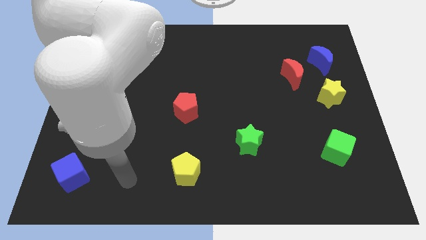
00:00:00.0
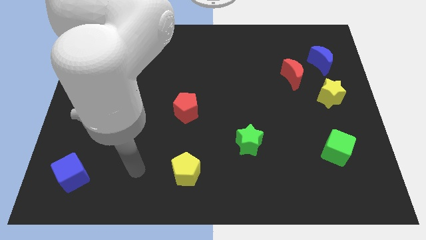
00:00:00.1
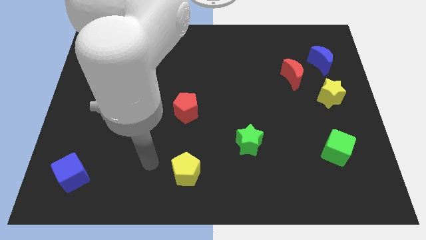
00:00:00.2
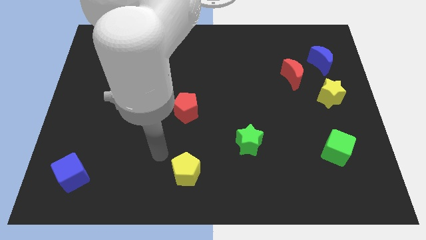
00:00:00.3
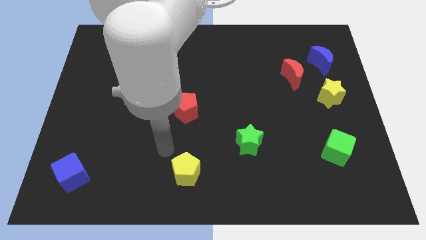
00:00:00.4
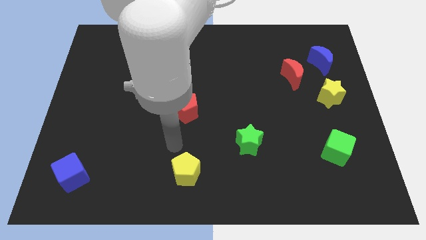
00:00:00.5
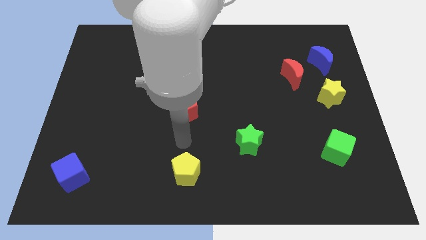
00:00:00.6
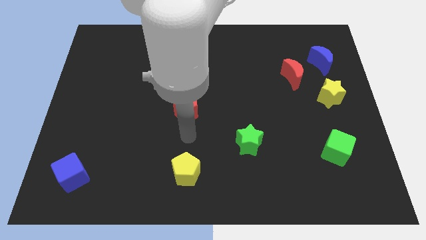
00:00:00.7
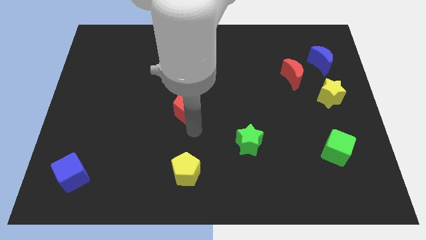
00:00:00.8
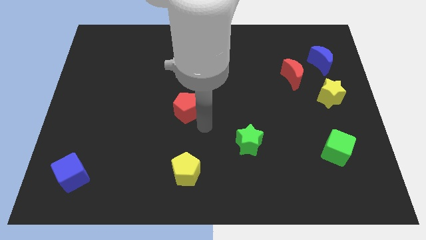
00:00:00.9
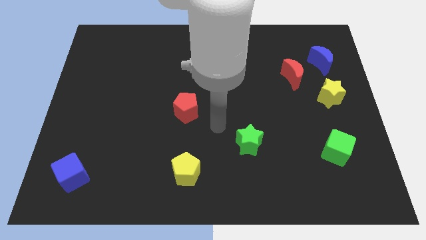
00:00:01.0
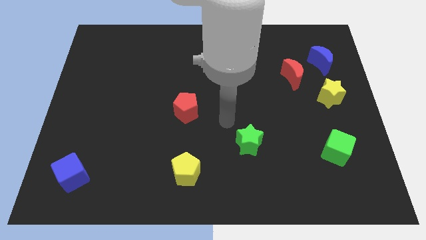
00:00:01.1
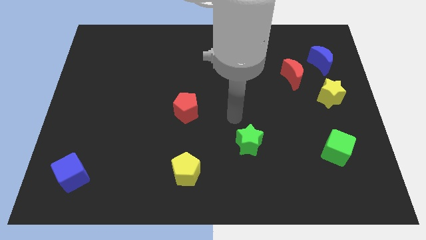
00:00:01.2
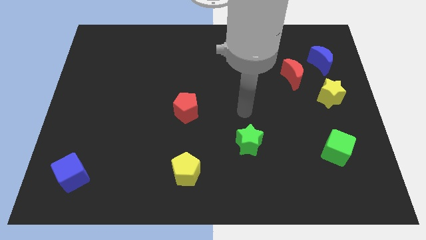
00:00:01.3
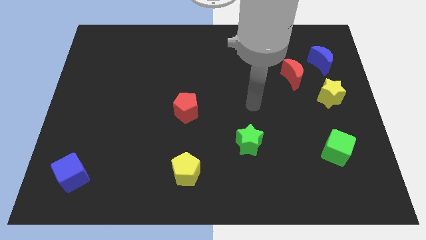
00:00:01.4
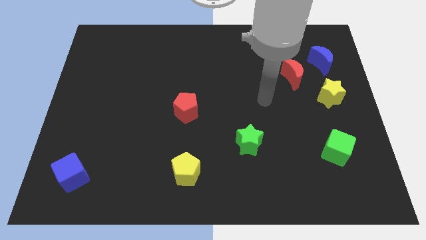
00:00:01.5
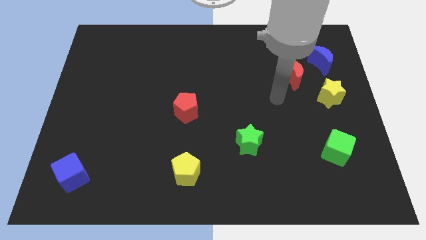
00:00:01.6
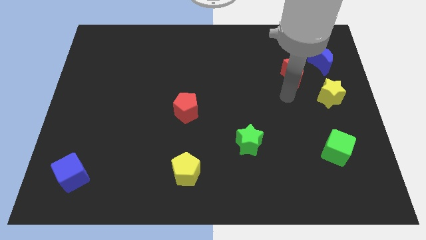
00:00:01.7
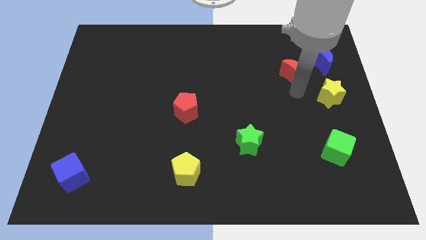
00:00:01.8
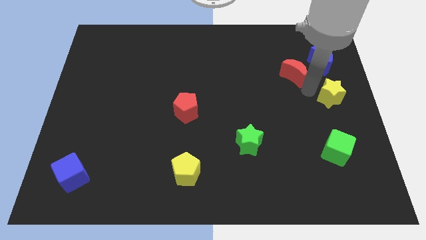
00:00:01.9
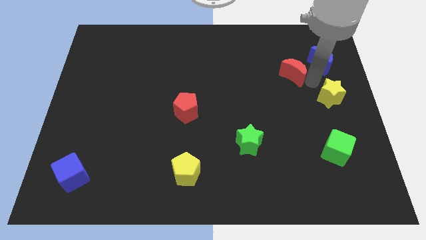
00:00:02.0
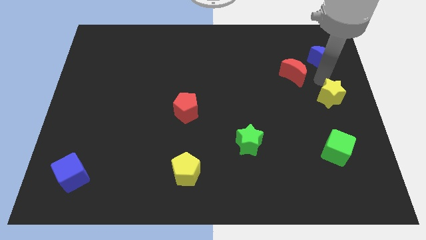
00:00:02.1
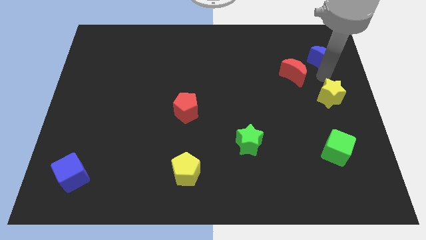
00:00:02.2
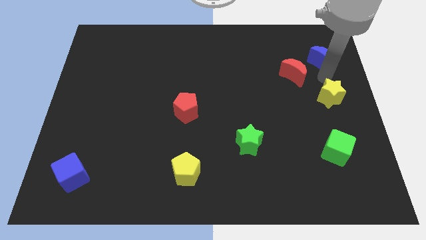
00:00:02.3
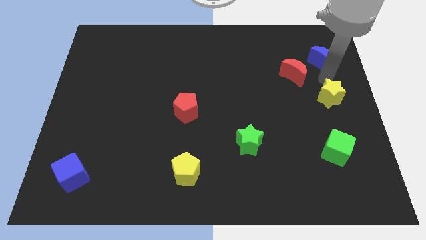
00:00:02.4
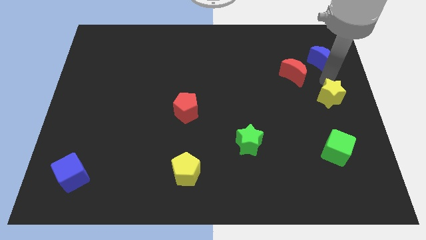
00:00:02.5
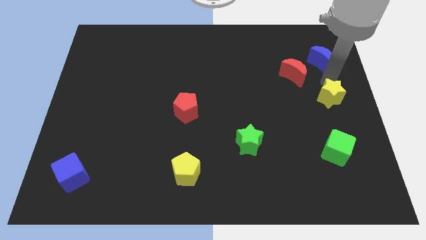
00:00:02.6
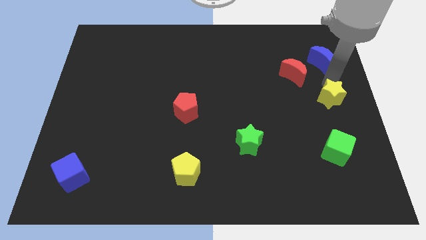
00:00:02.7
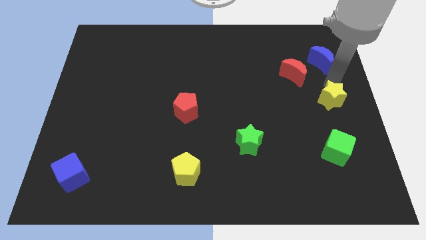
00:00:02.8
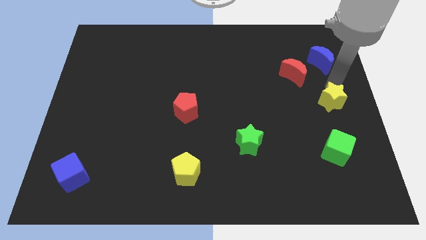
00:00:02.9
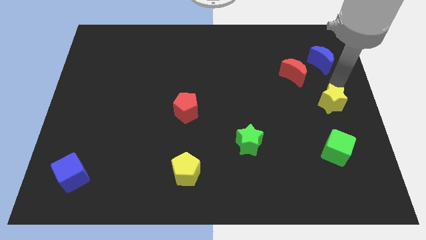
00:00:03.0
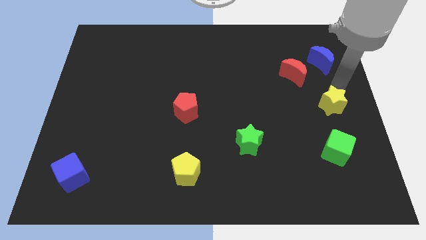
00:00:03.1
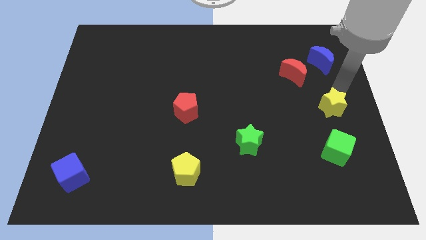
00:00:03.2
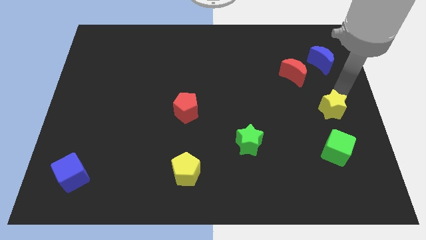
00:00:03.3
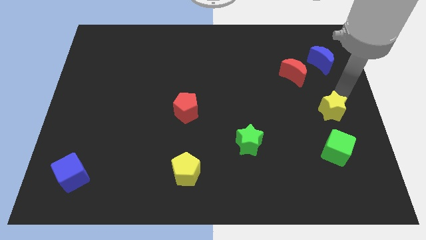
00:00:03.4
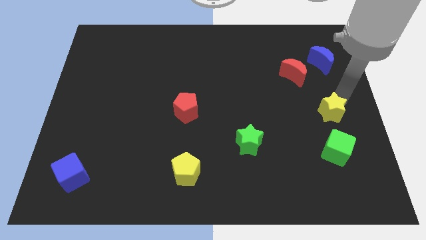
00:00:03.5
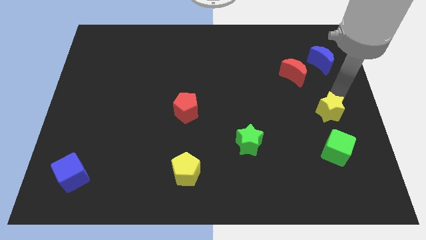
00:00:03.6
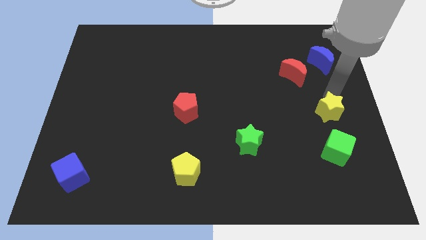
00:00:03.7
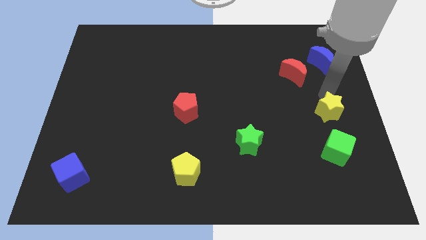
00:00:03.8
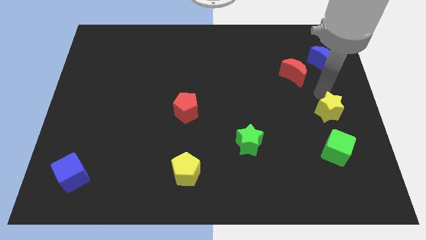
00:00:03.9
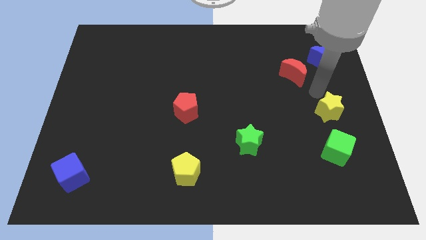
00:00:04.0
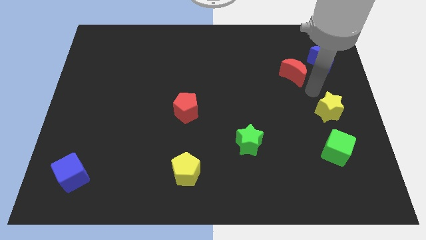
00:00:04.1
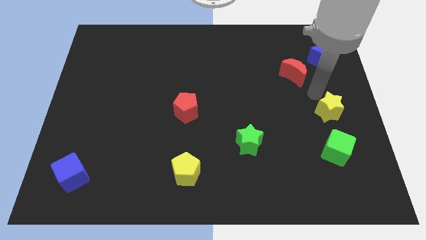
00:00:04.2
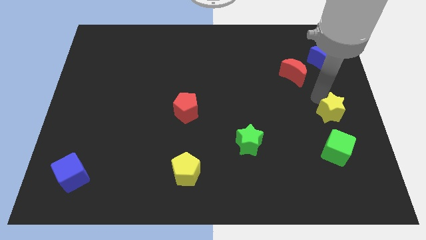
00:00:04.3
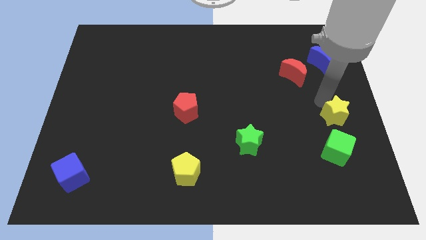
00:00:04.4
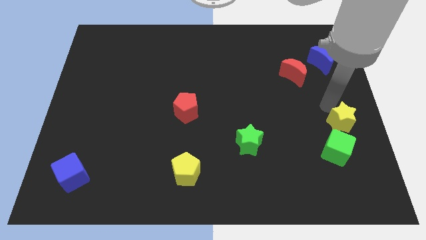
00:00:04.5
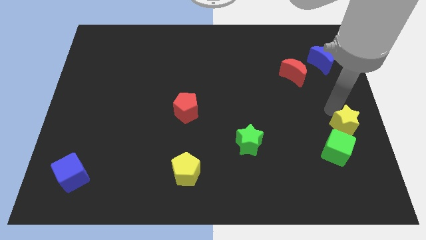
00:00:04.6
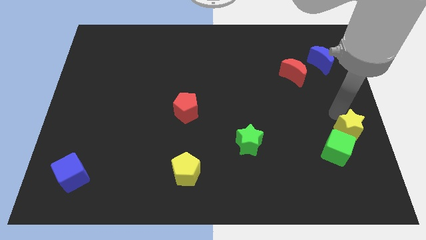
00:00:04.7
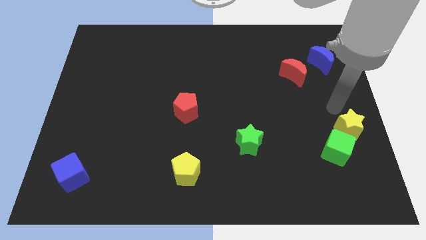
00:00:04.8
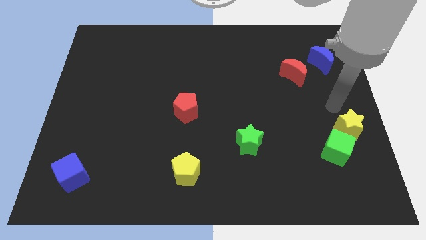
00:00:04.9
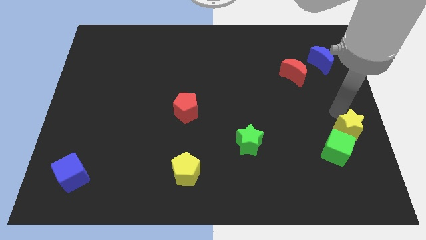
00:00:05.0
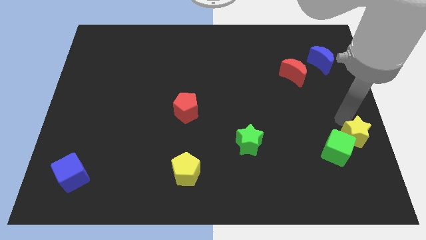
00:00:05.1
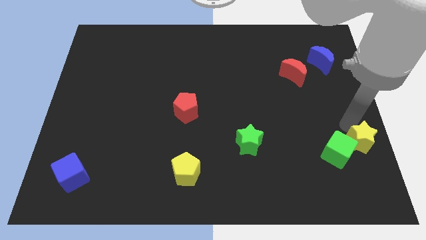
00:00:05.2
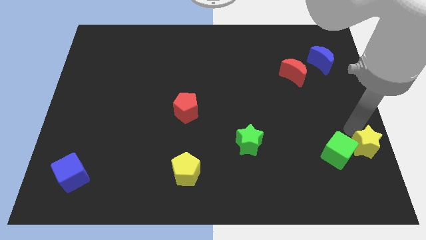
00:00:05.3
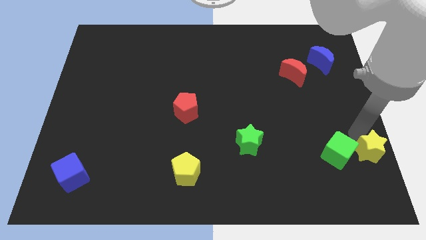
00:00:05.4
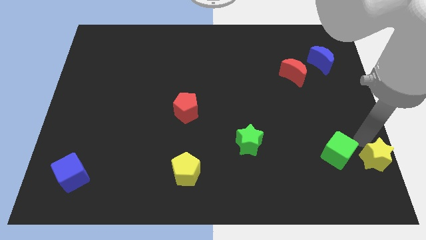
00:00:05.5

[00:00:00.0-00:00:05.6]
move the yellow star to the bottom right

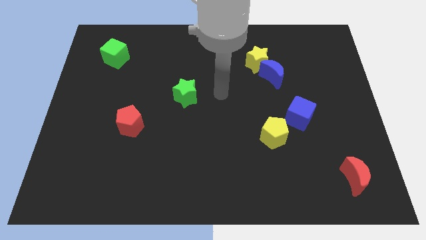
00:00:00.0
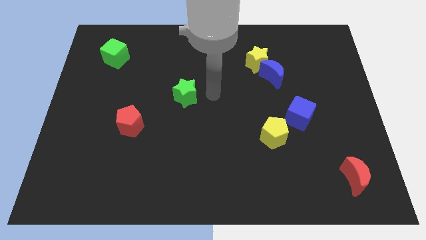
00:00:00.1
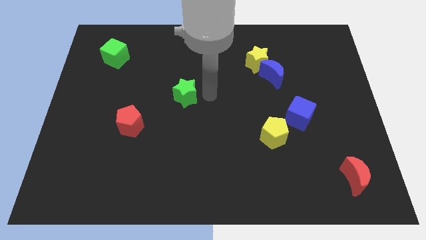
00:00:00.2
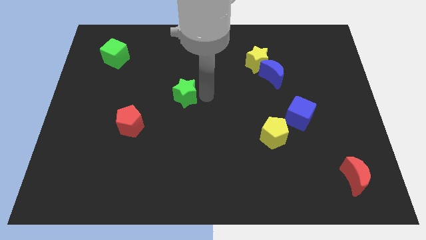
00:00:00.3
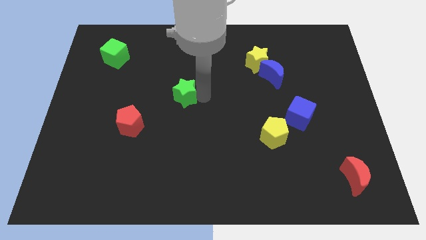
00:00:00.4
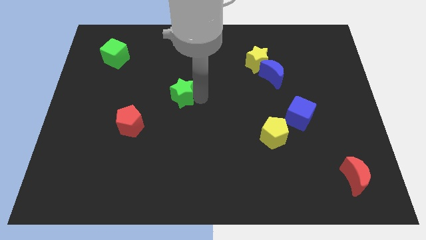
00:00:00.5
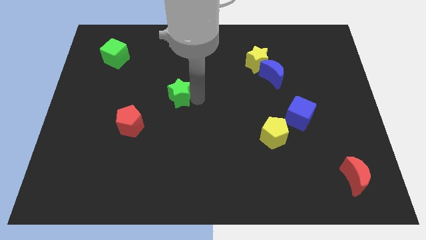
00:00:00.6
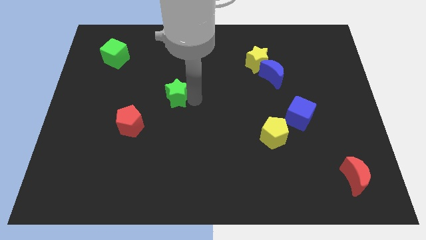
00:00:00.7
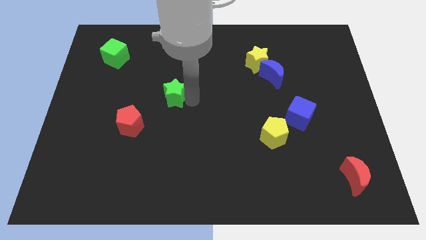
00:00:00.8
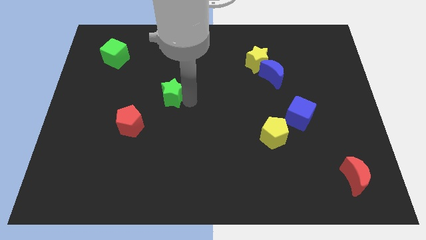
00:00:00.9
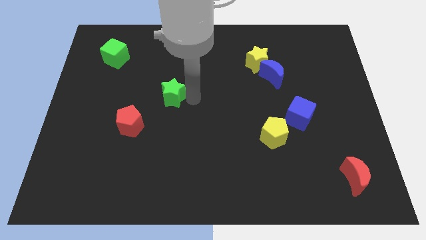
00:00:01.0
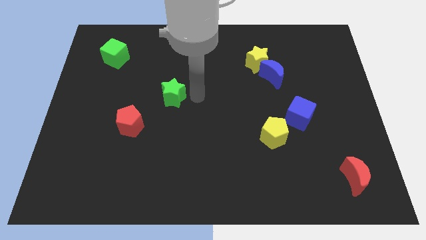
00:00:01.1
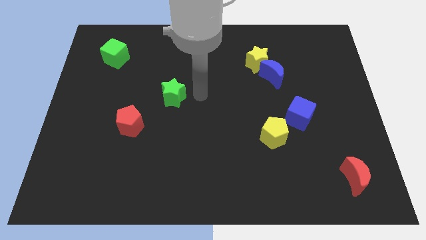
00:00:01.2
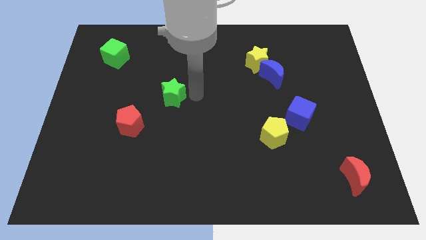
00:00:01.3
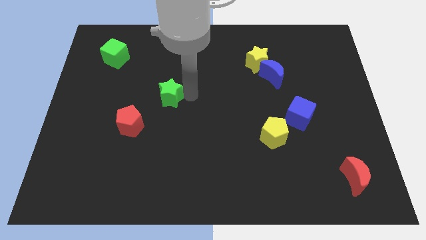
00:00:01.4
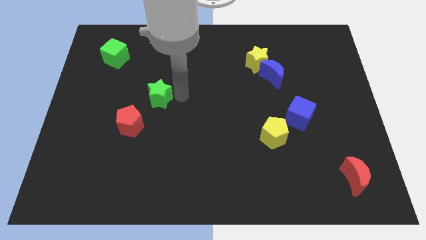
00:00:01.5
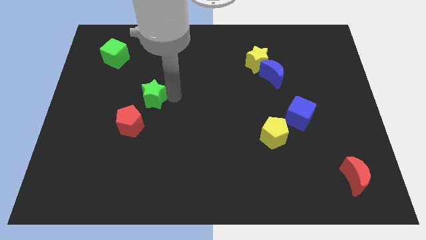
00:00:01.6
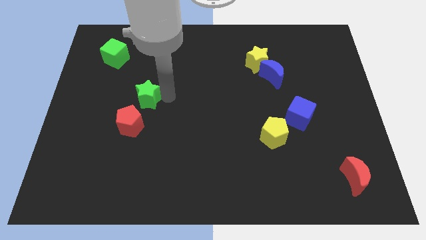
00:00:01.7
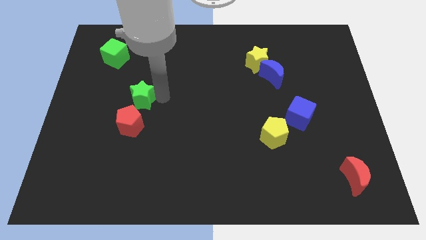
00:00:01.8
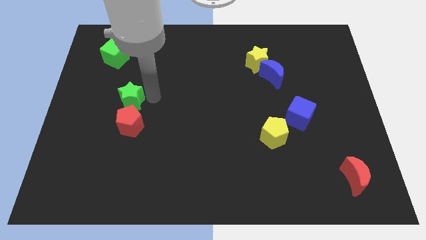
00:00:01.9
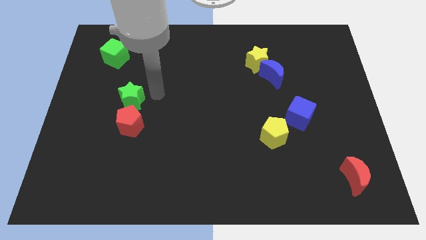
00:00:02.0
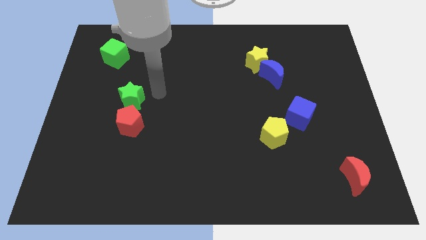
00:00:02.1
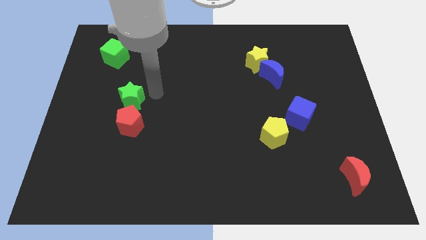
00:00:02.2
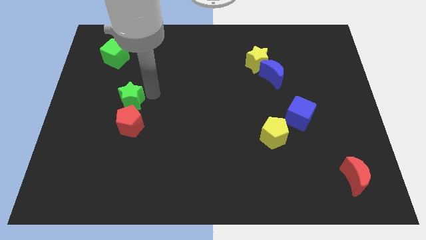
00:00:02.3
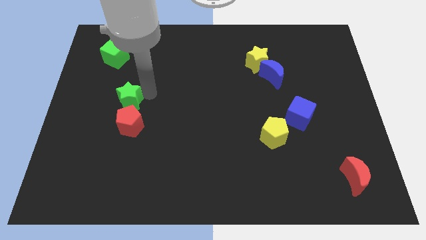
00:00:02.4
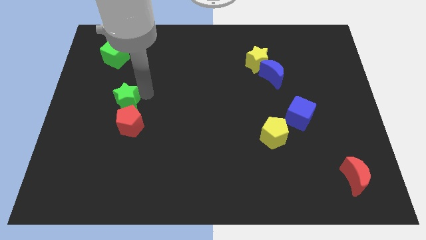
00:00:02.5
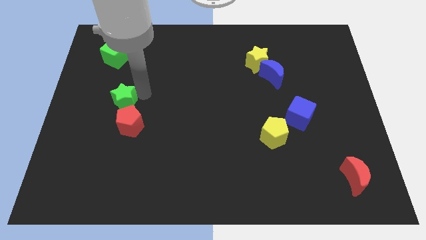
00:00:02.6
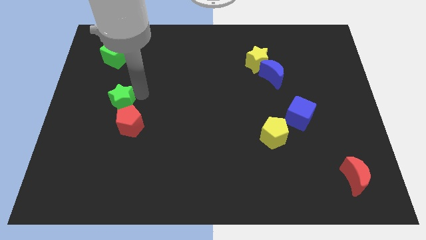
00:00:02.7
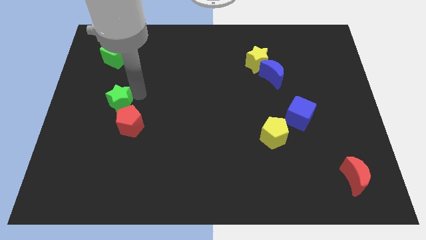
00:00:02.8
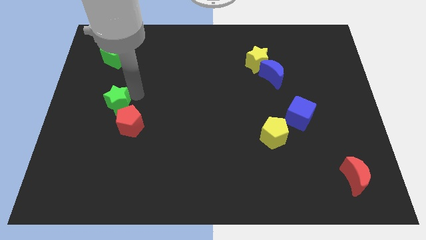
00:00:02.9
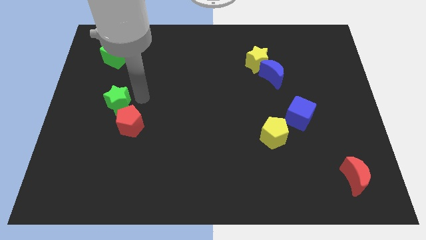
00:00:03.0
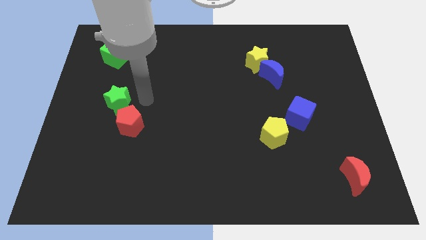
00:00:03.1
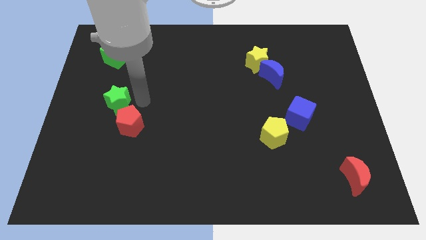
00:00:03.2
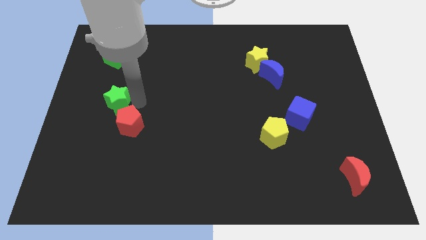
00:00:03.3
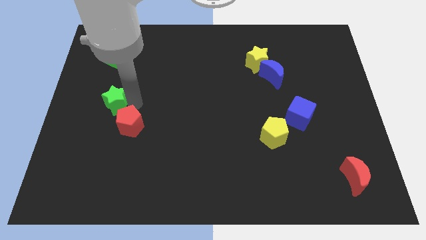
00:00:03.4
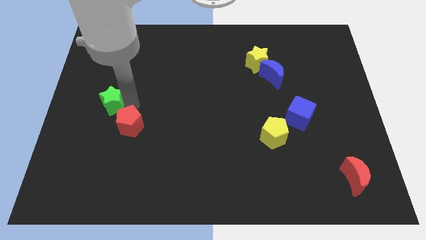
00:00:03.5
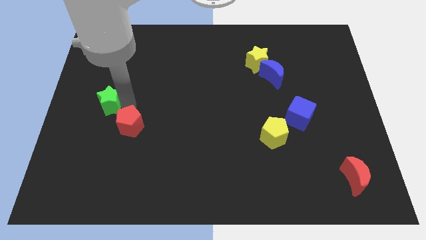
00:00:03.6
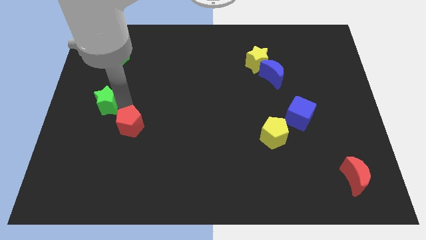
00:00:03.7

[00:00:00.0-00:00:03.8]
move the green star to the center left
